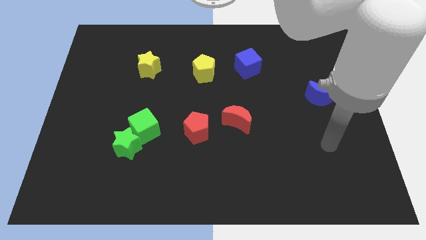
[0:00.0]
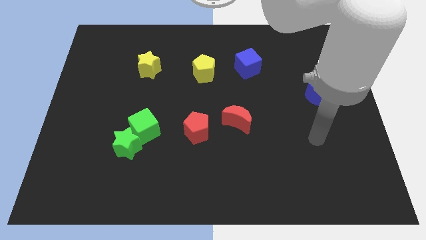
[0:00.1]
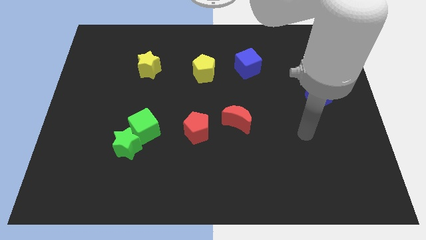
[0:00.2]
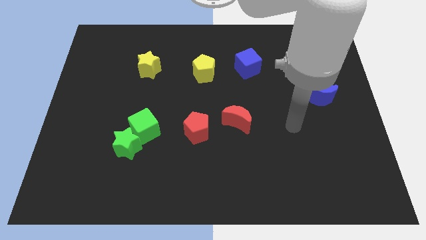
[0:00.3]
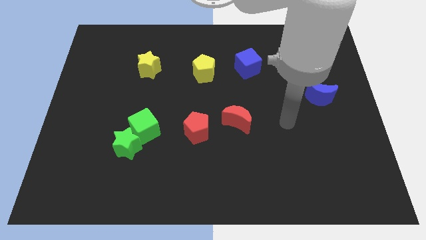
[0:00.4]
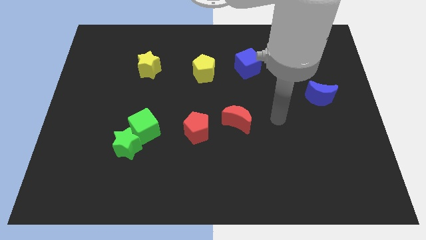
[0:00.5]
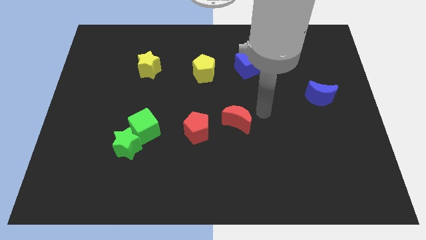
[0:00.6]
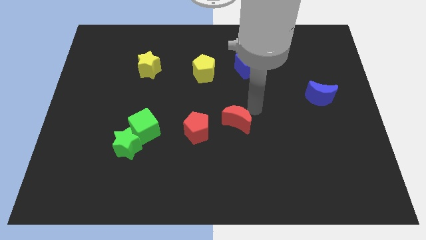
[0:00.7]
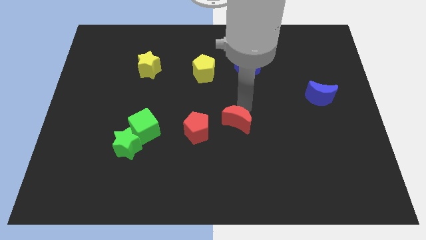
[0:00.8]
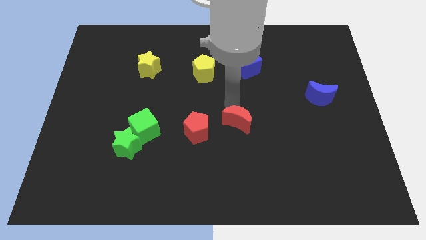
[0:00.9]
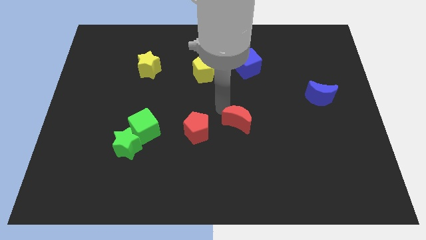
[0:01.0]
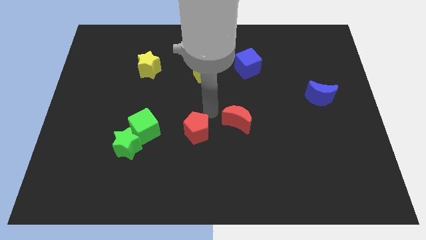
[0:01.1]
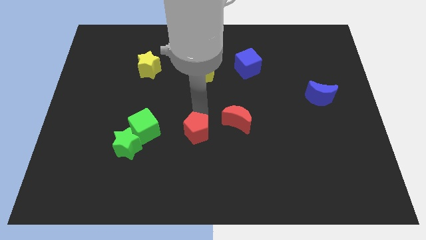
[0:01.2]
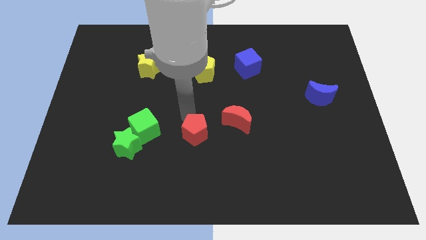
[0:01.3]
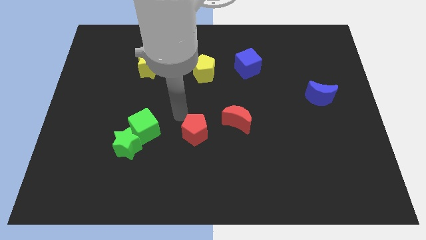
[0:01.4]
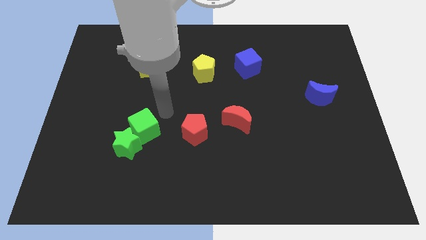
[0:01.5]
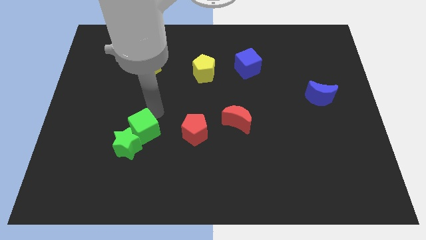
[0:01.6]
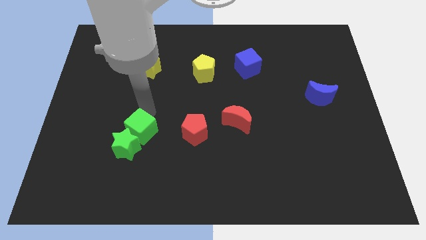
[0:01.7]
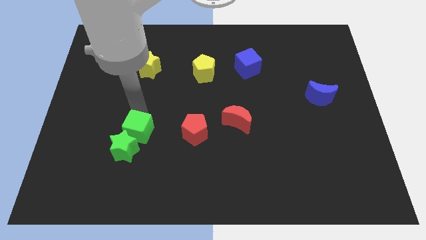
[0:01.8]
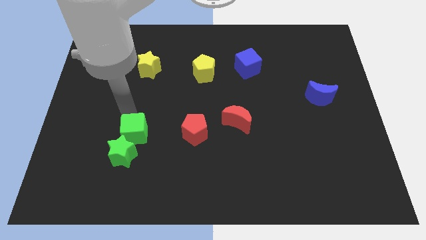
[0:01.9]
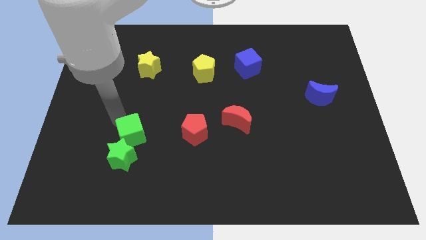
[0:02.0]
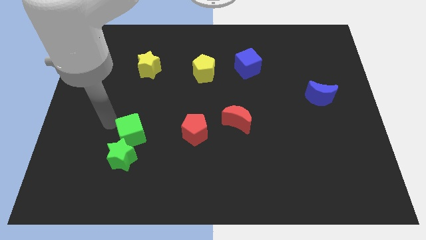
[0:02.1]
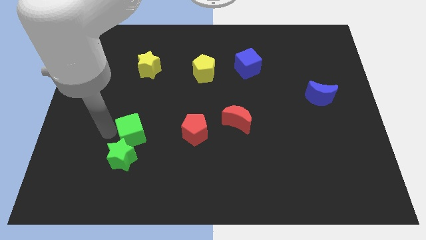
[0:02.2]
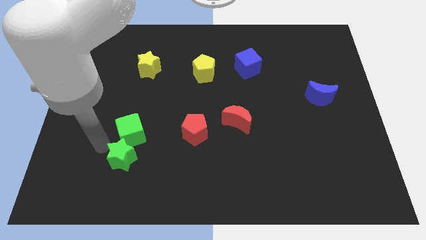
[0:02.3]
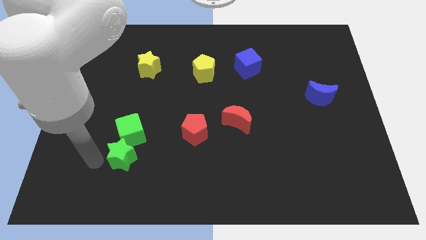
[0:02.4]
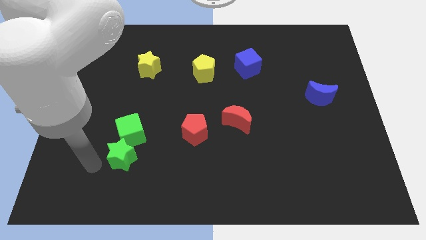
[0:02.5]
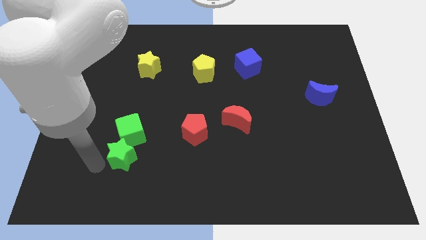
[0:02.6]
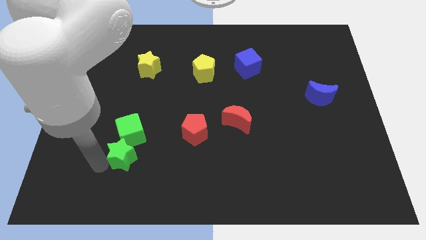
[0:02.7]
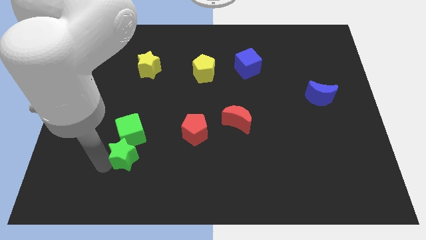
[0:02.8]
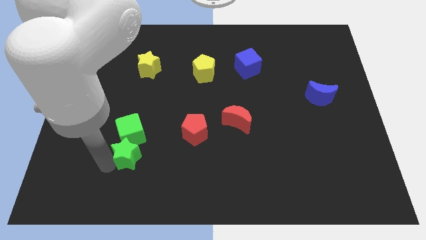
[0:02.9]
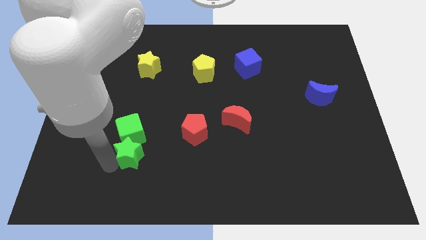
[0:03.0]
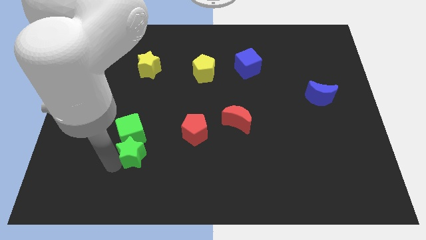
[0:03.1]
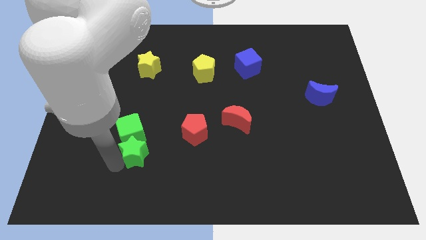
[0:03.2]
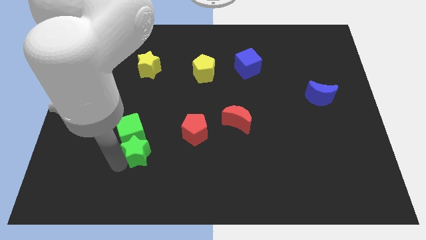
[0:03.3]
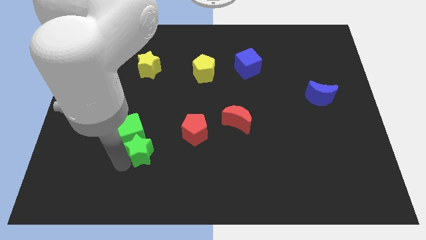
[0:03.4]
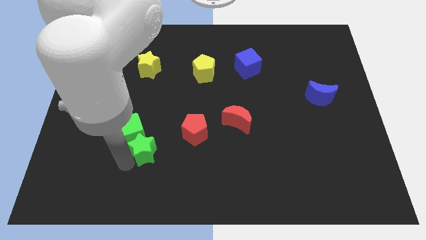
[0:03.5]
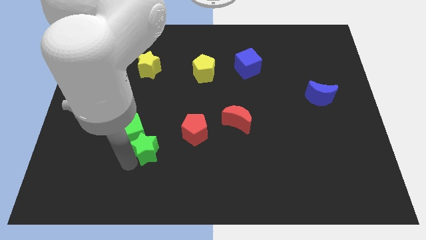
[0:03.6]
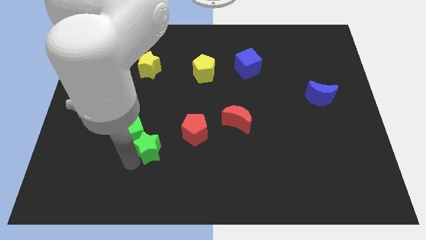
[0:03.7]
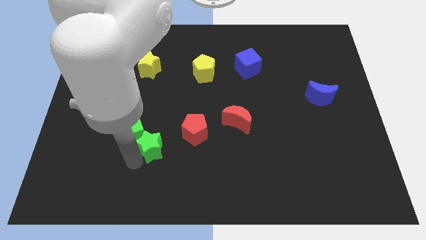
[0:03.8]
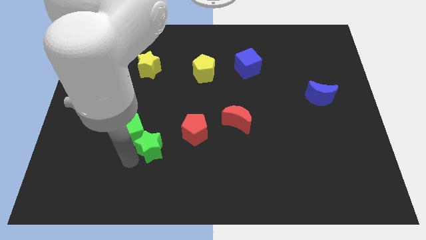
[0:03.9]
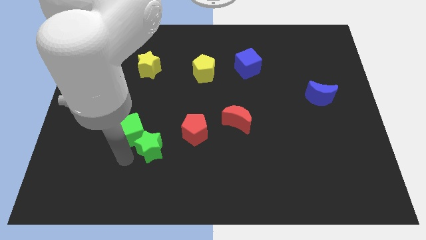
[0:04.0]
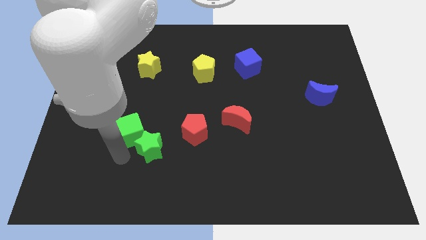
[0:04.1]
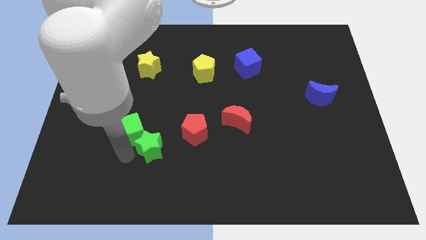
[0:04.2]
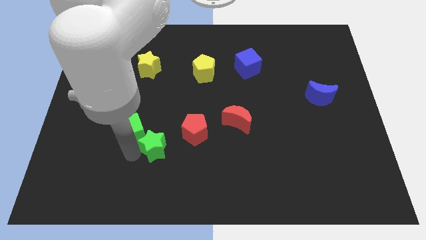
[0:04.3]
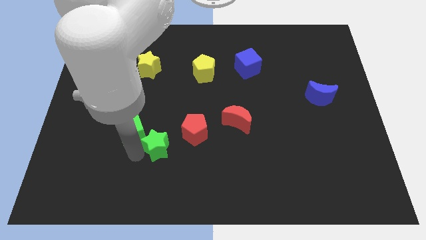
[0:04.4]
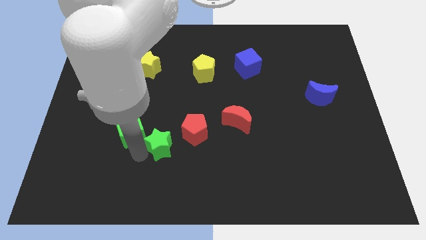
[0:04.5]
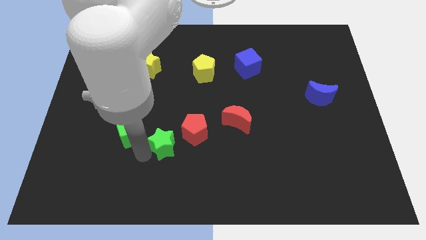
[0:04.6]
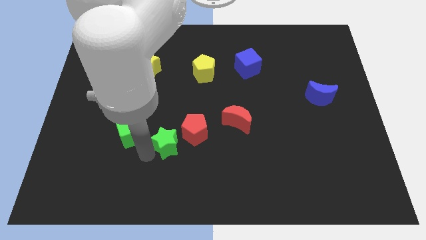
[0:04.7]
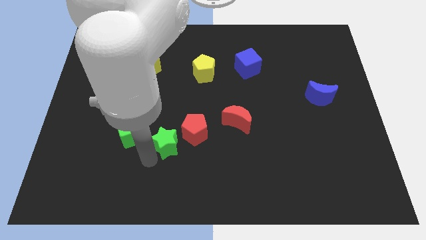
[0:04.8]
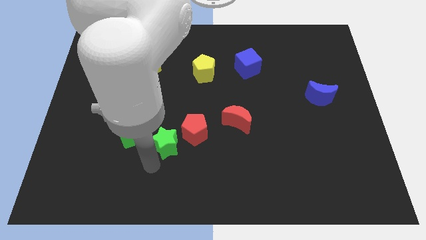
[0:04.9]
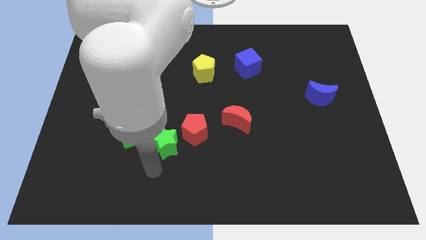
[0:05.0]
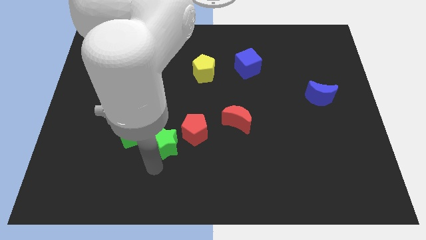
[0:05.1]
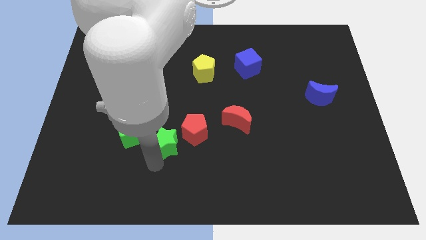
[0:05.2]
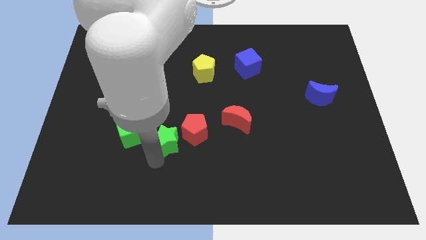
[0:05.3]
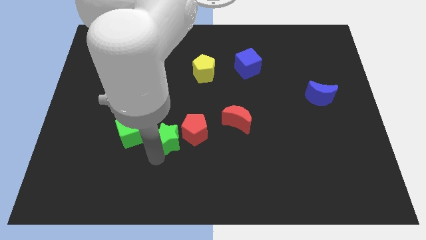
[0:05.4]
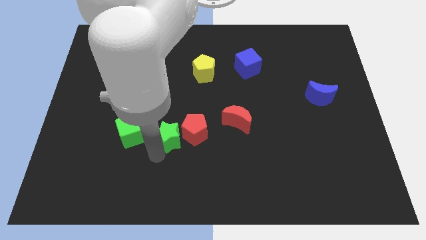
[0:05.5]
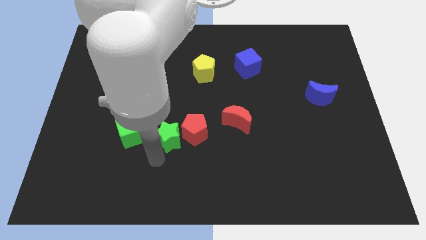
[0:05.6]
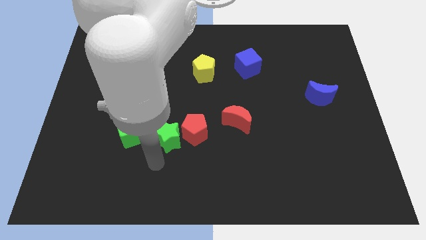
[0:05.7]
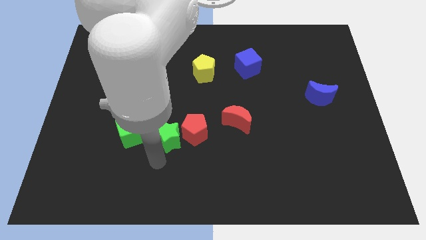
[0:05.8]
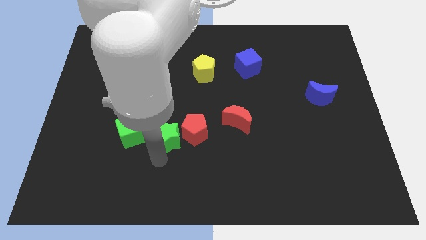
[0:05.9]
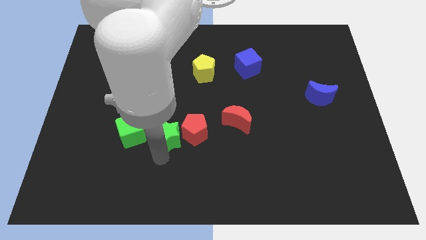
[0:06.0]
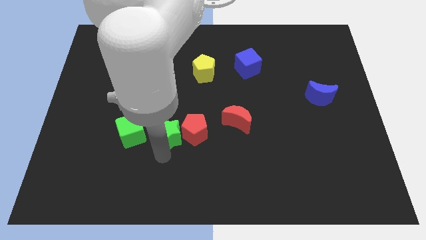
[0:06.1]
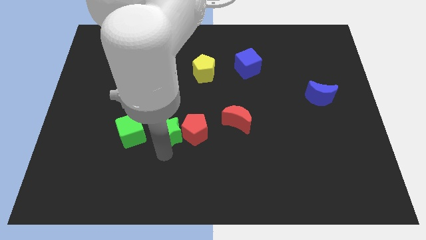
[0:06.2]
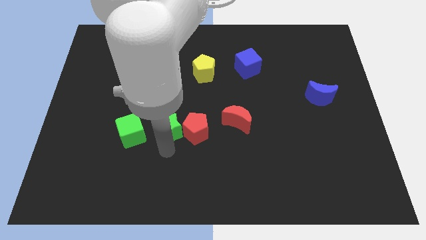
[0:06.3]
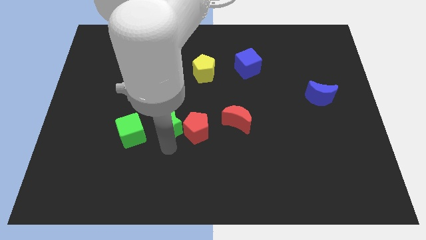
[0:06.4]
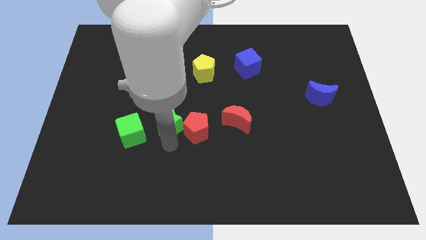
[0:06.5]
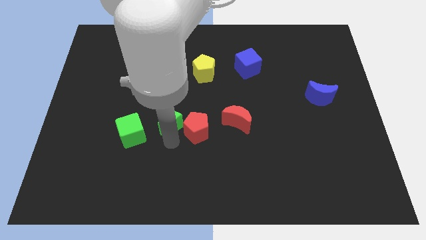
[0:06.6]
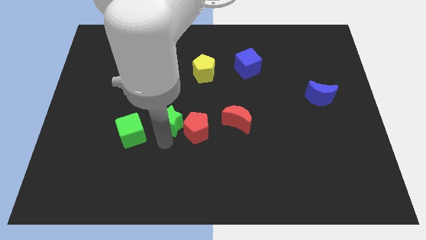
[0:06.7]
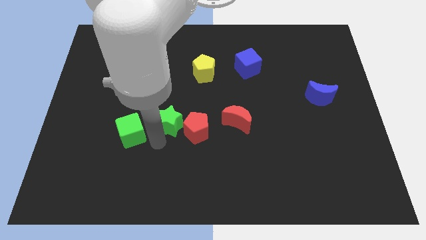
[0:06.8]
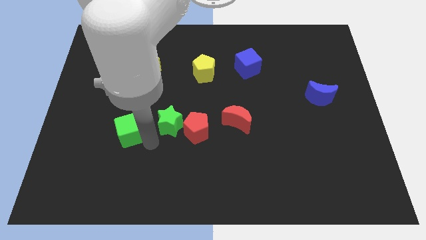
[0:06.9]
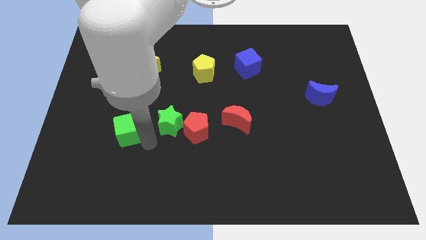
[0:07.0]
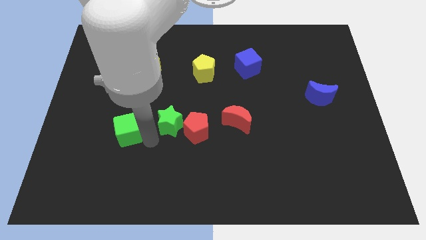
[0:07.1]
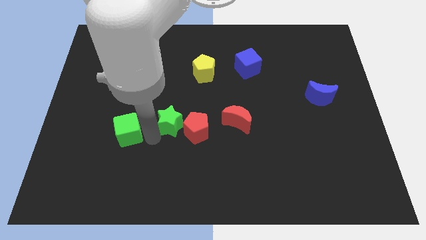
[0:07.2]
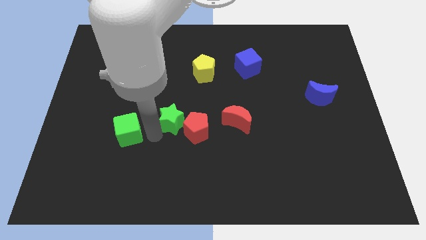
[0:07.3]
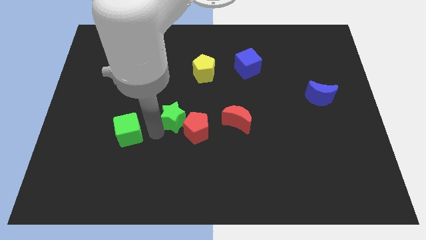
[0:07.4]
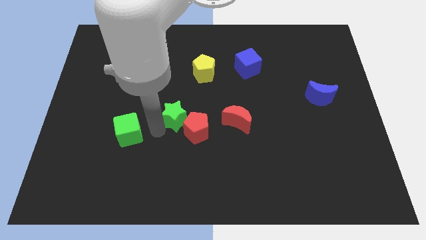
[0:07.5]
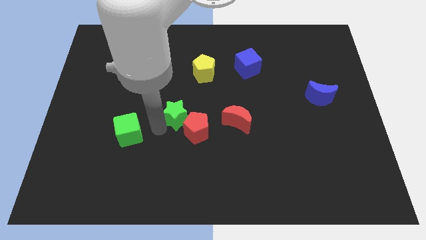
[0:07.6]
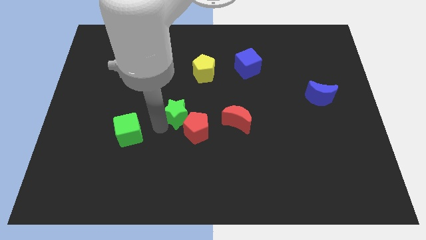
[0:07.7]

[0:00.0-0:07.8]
slide the green star to the top side of the red pentagon

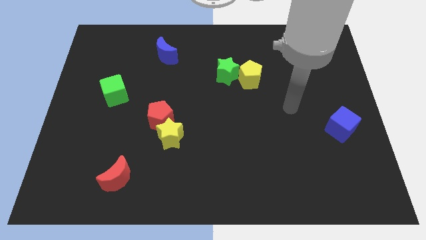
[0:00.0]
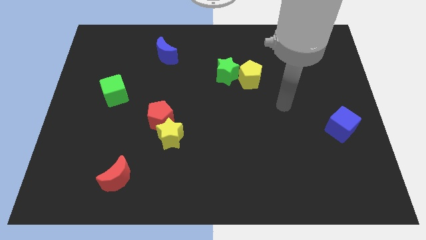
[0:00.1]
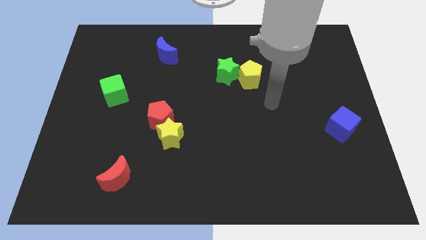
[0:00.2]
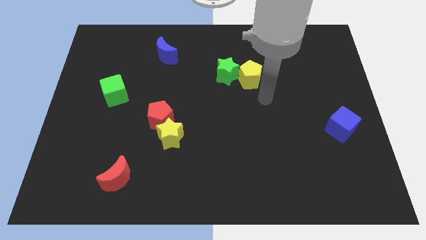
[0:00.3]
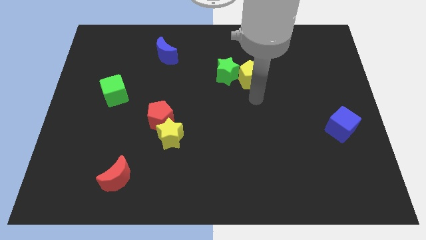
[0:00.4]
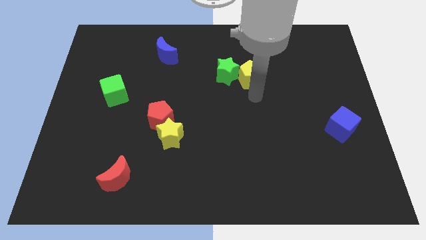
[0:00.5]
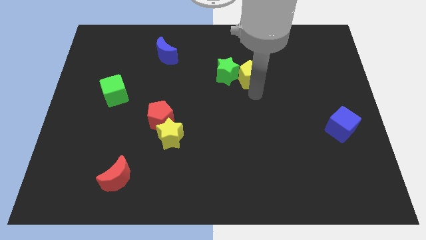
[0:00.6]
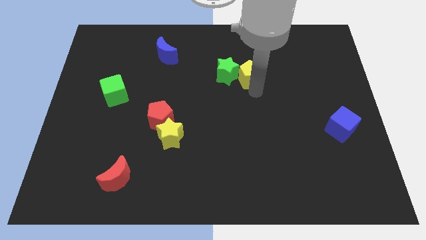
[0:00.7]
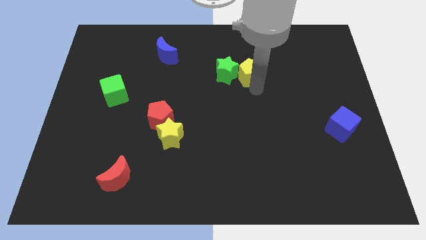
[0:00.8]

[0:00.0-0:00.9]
slide the yellow pentagon diagonally up and to the right of the green star
